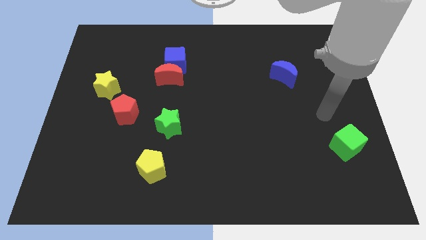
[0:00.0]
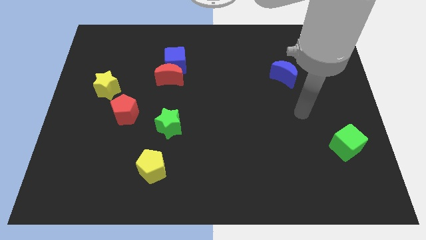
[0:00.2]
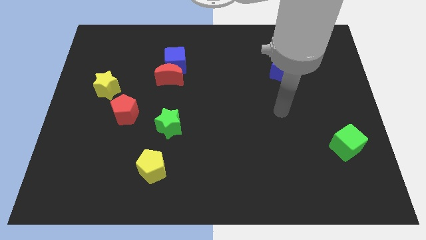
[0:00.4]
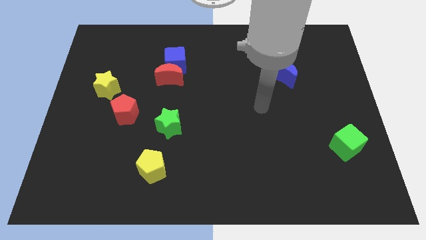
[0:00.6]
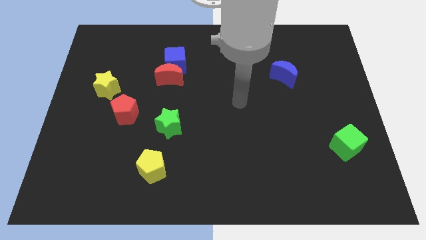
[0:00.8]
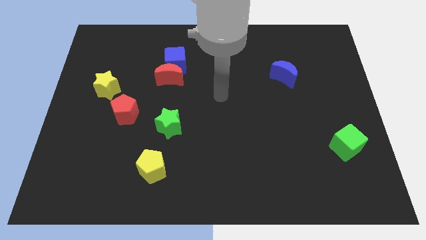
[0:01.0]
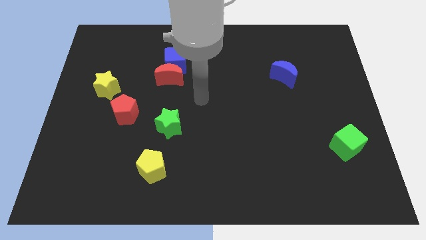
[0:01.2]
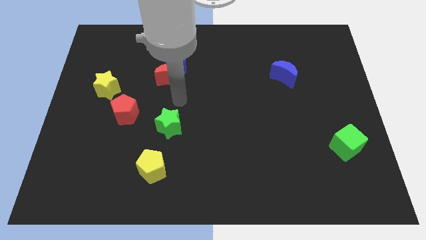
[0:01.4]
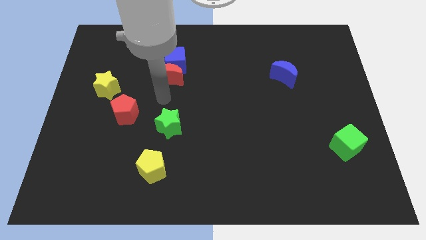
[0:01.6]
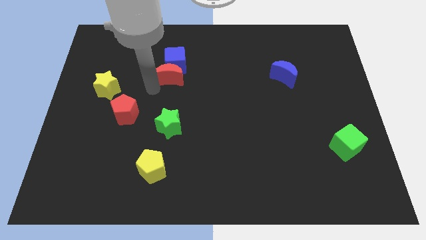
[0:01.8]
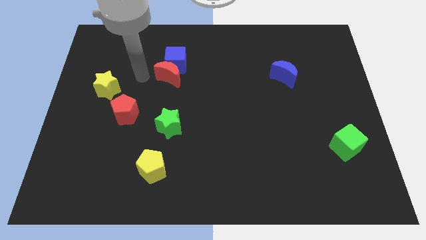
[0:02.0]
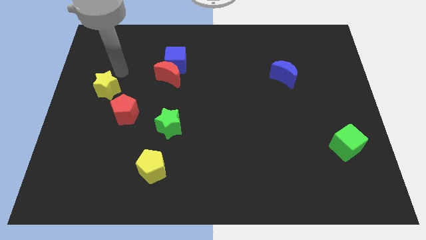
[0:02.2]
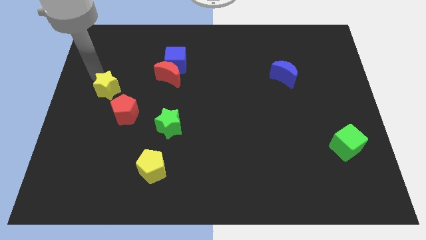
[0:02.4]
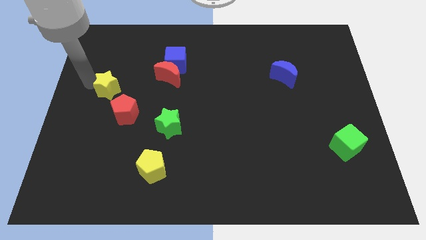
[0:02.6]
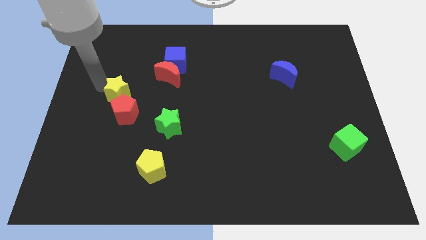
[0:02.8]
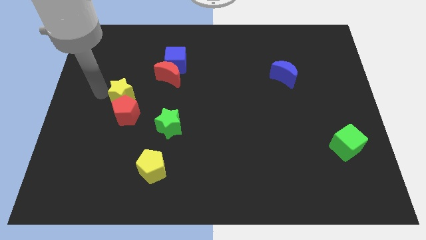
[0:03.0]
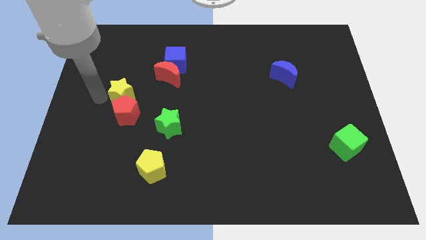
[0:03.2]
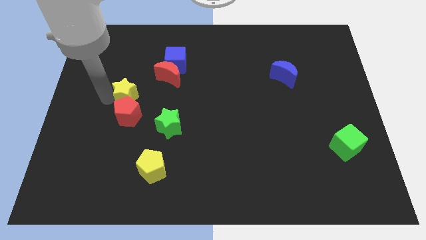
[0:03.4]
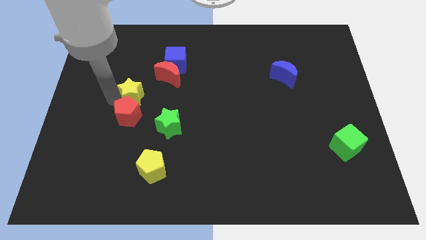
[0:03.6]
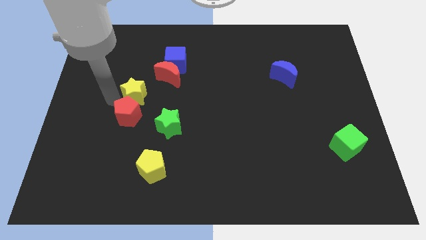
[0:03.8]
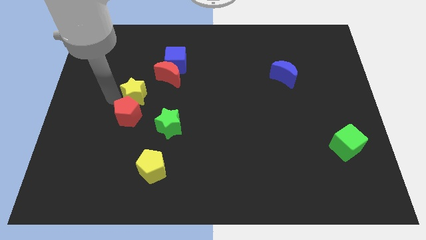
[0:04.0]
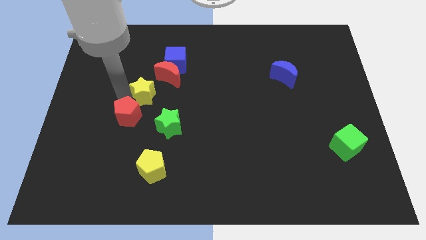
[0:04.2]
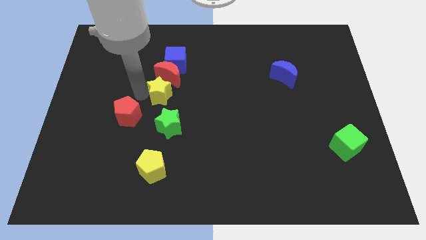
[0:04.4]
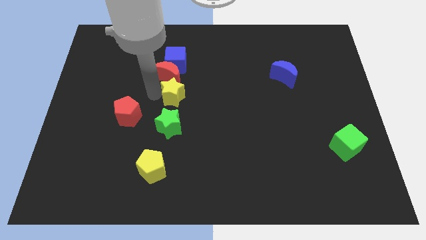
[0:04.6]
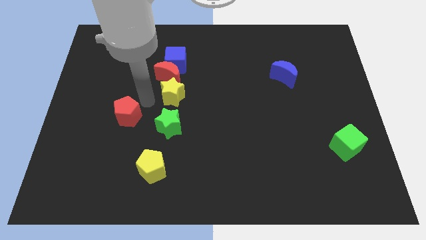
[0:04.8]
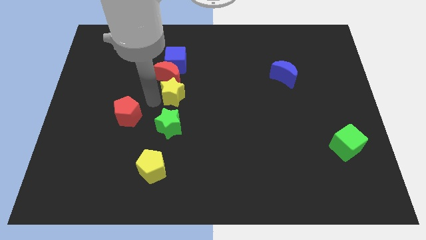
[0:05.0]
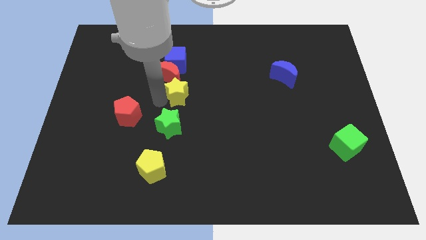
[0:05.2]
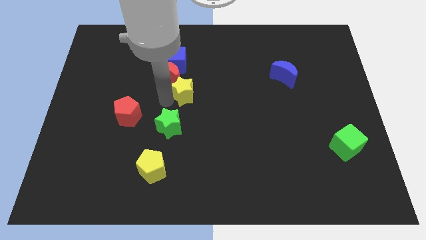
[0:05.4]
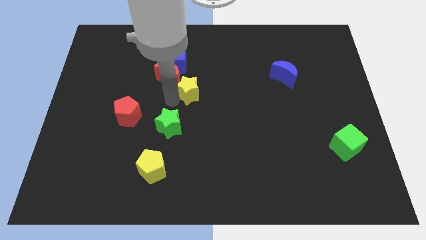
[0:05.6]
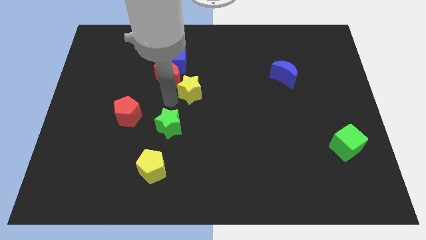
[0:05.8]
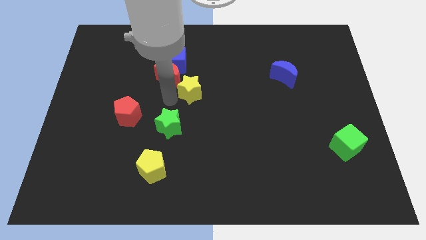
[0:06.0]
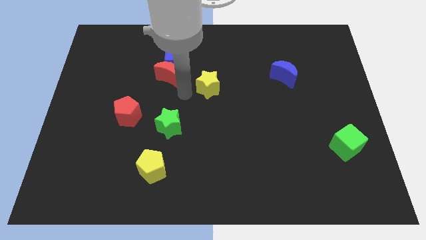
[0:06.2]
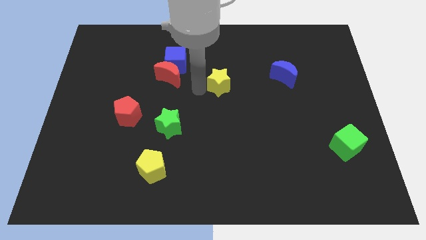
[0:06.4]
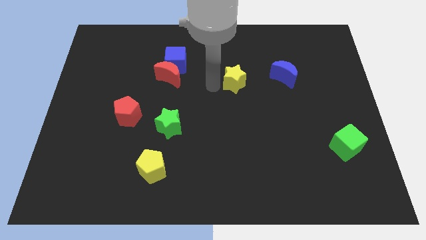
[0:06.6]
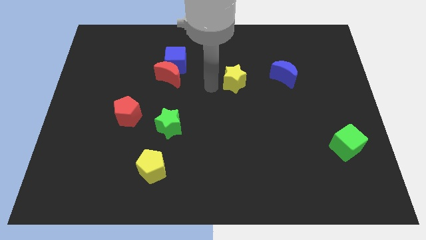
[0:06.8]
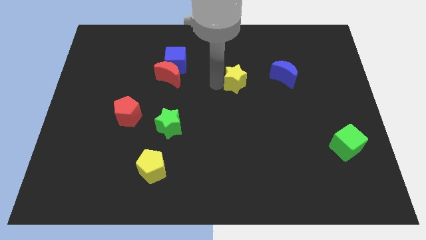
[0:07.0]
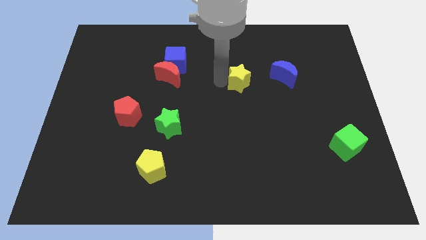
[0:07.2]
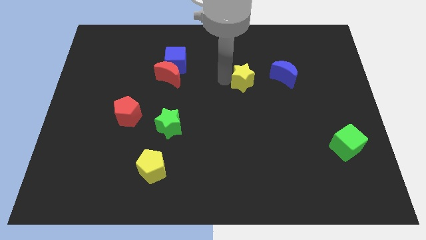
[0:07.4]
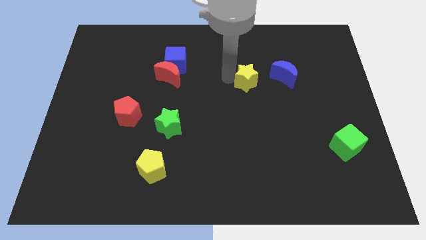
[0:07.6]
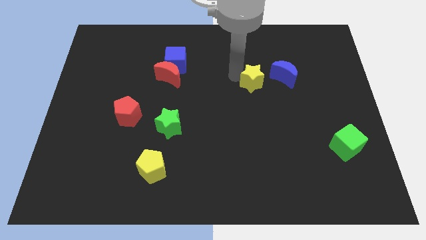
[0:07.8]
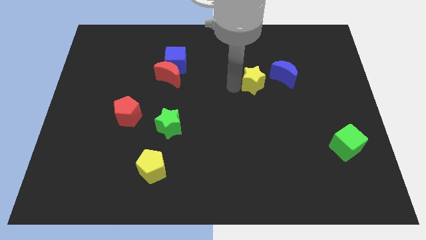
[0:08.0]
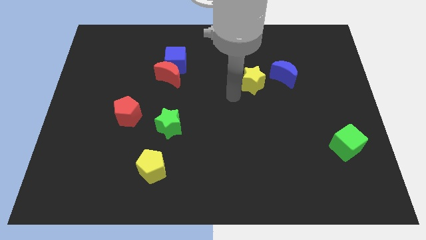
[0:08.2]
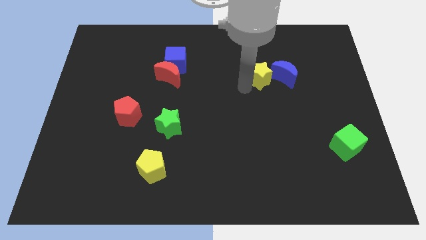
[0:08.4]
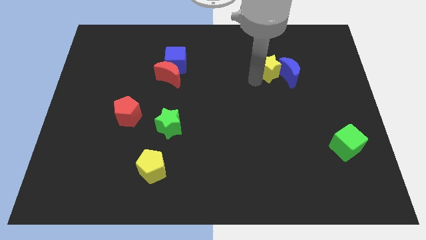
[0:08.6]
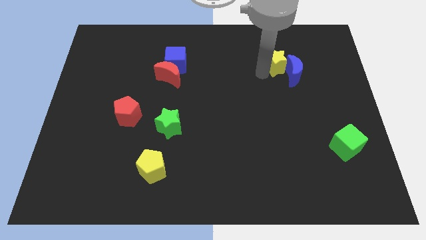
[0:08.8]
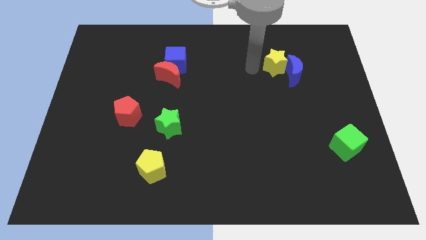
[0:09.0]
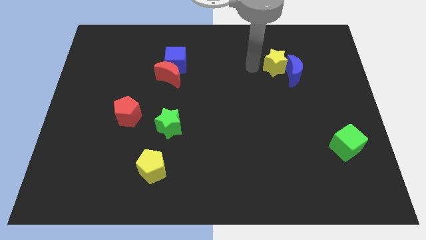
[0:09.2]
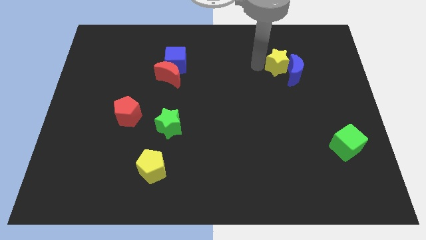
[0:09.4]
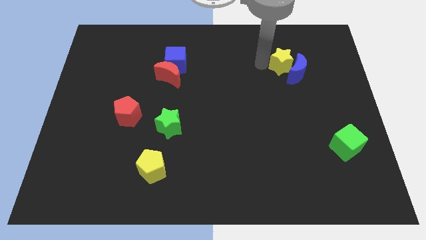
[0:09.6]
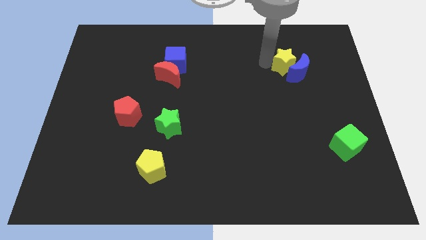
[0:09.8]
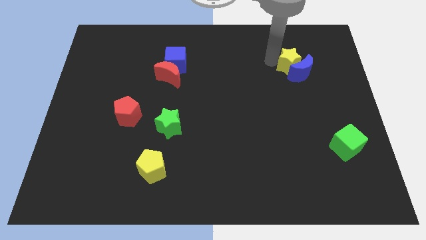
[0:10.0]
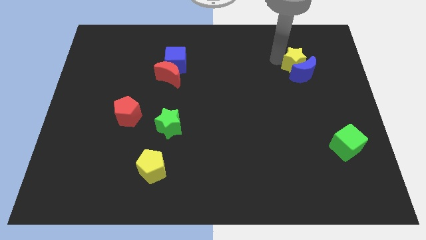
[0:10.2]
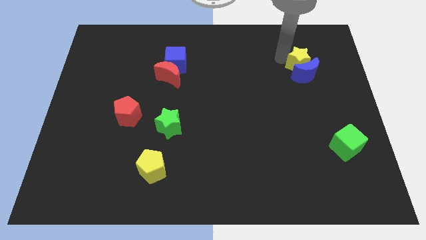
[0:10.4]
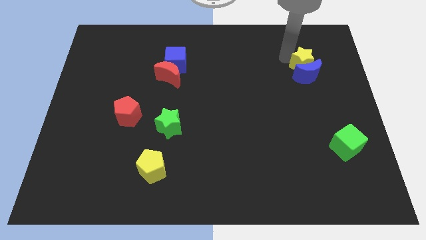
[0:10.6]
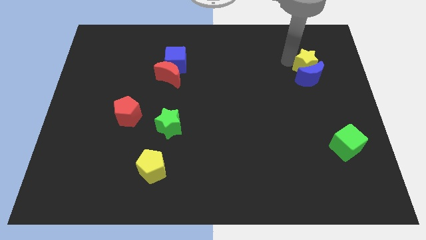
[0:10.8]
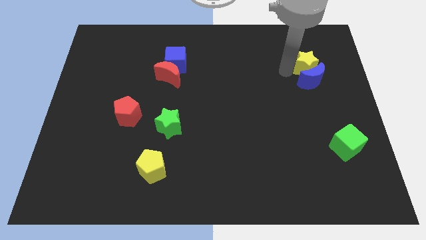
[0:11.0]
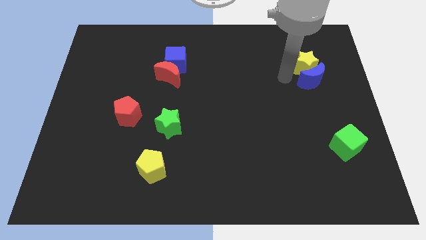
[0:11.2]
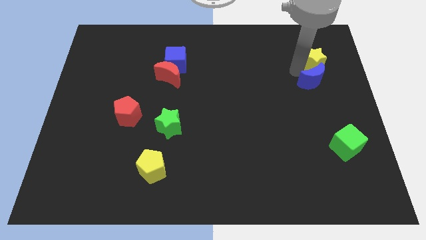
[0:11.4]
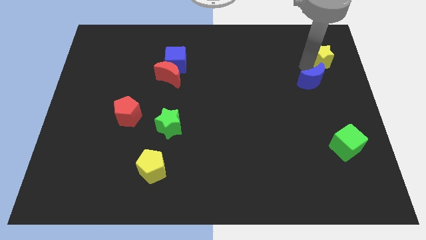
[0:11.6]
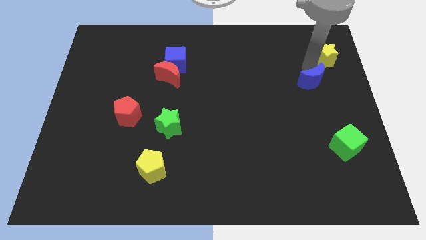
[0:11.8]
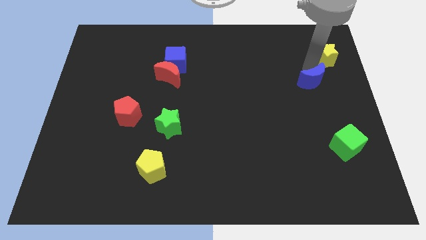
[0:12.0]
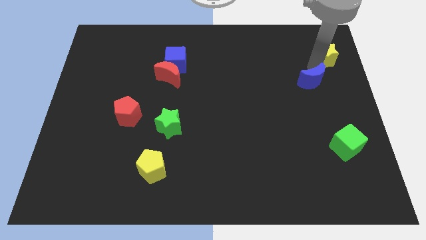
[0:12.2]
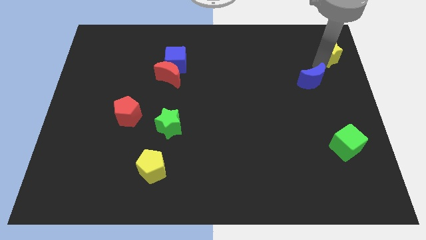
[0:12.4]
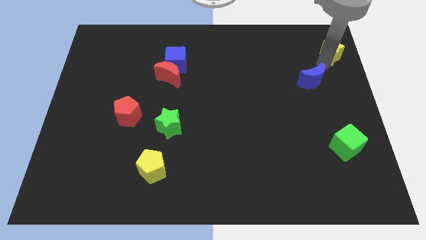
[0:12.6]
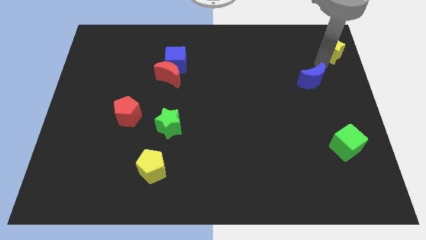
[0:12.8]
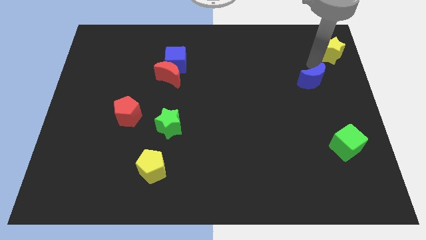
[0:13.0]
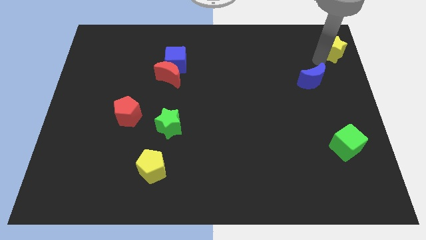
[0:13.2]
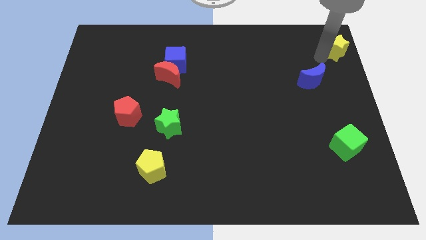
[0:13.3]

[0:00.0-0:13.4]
move the yellow star to the top right corner
